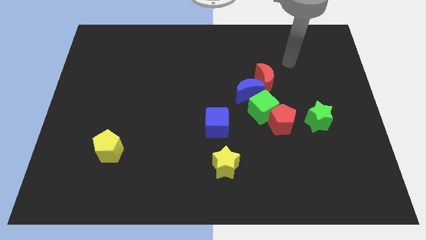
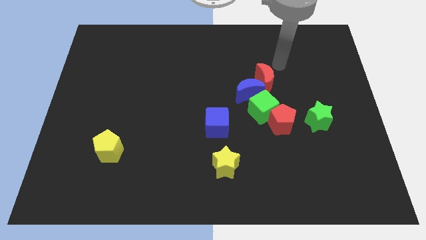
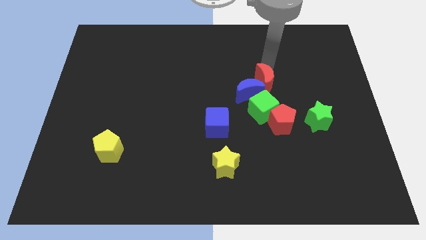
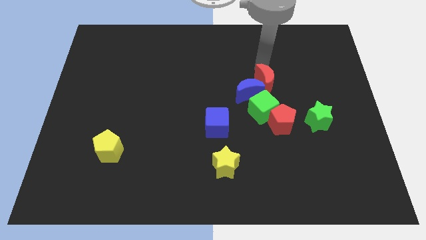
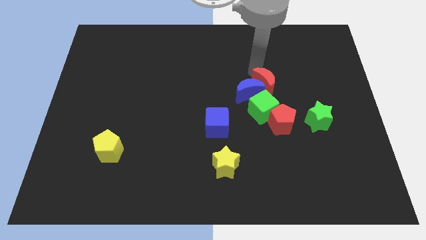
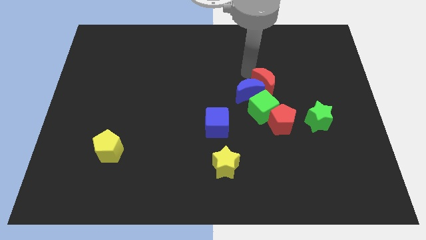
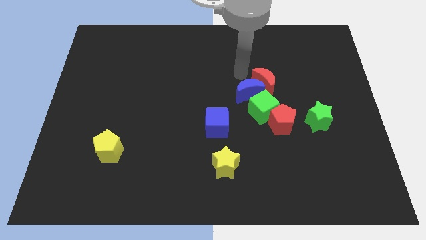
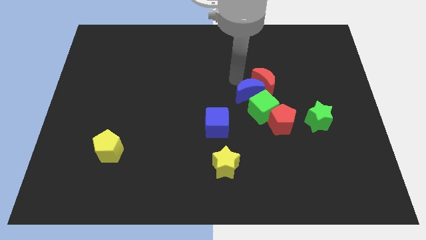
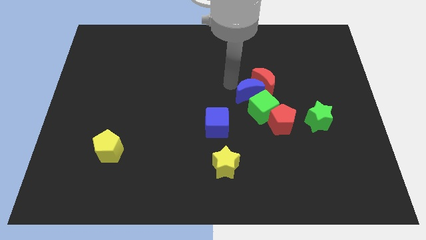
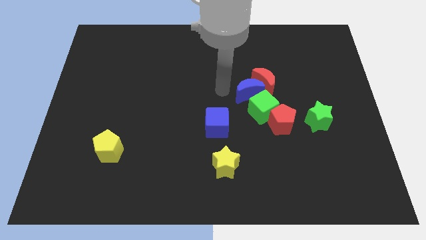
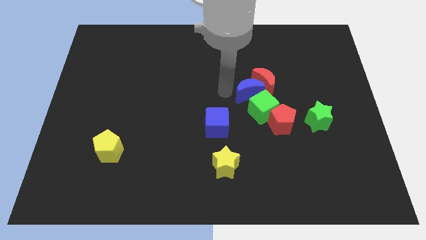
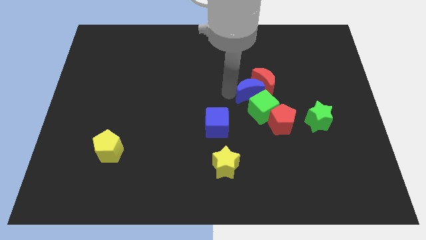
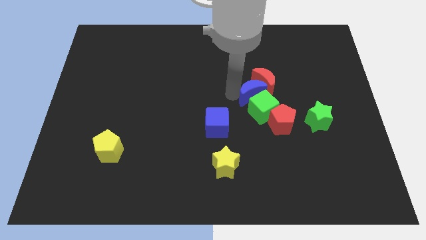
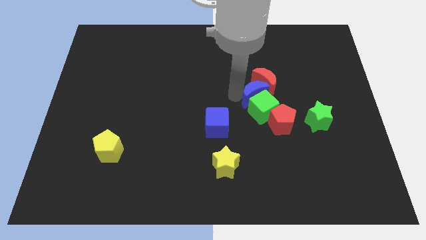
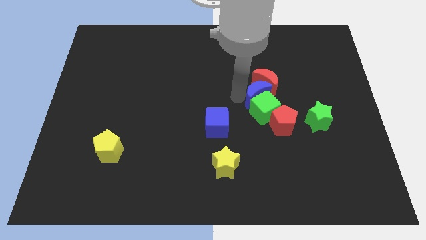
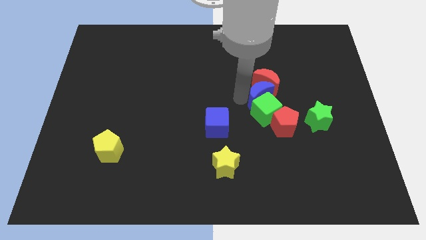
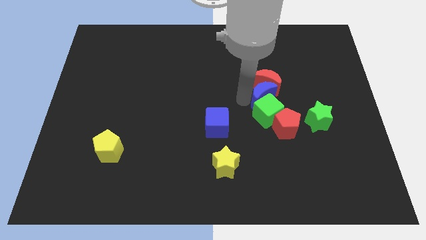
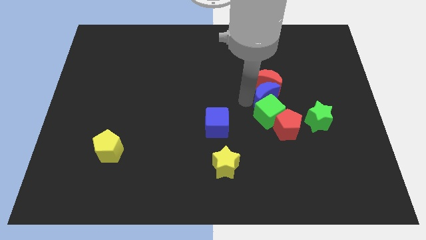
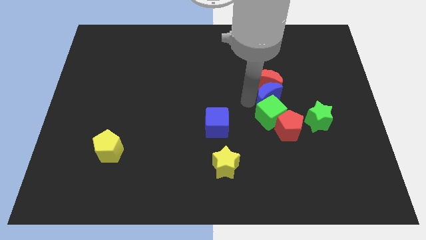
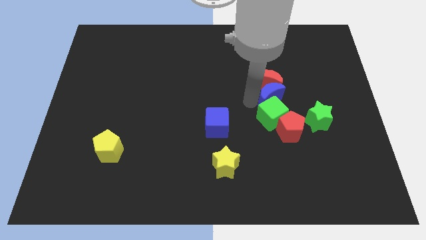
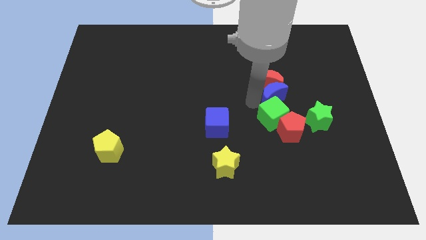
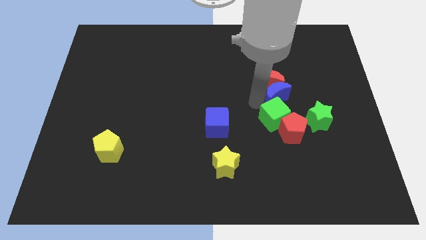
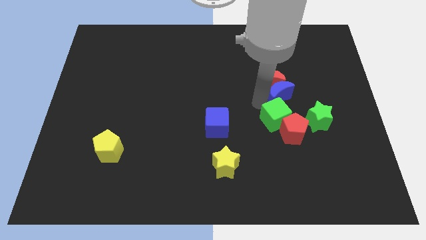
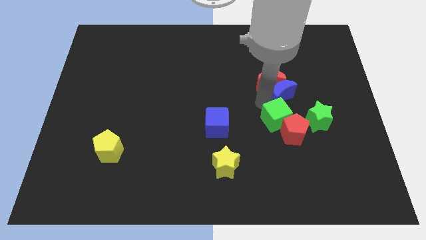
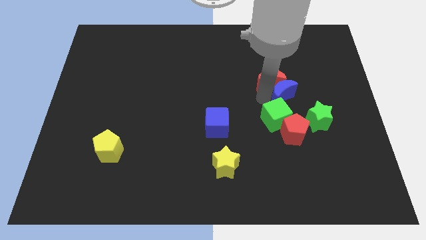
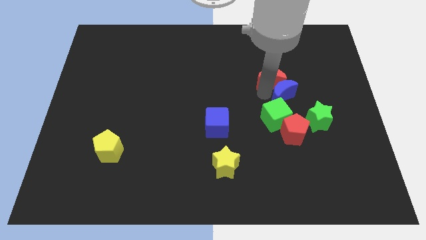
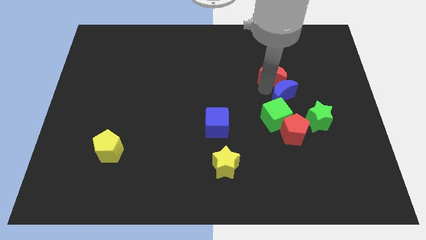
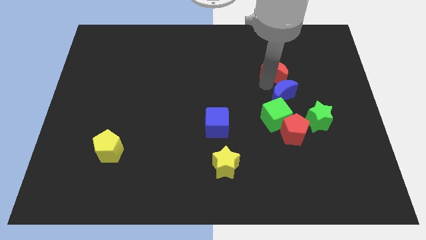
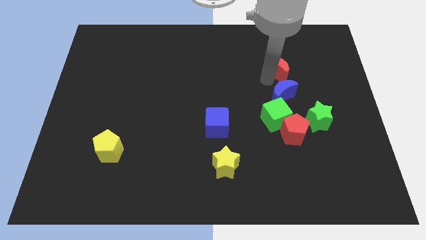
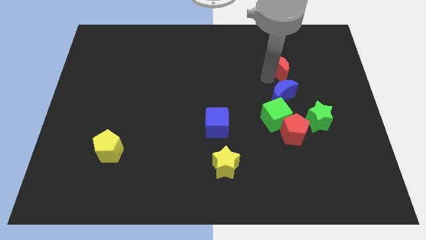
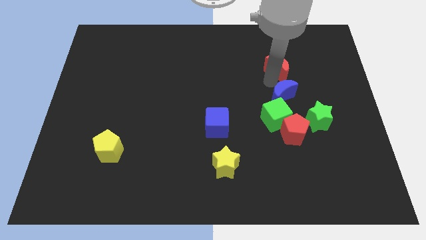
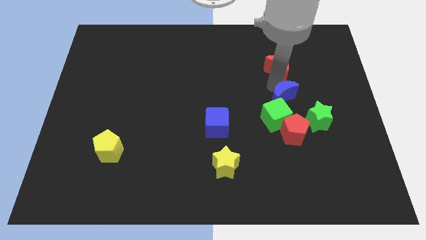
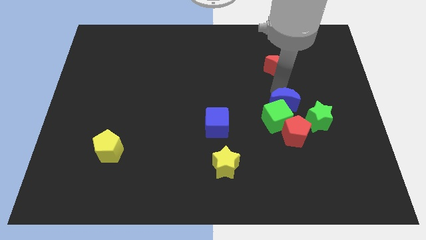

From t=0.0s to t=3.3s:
move the blue moon down and to the right somewhat

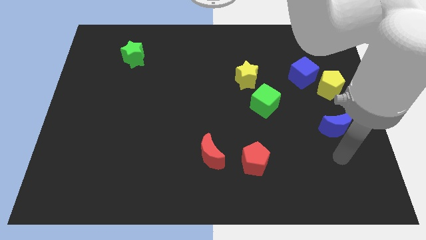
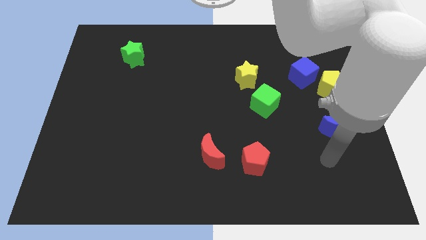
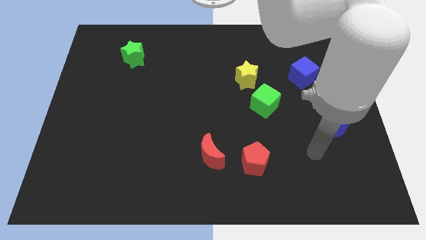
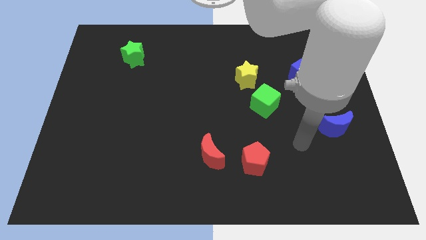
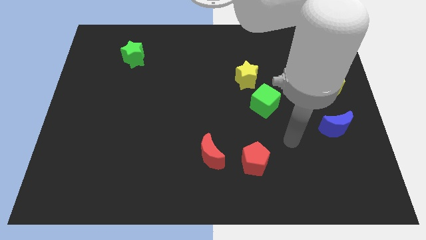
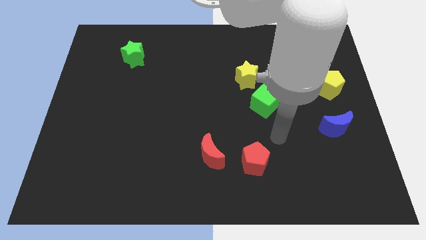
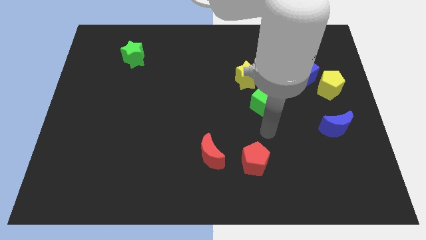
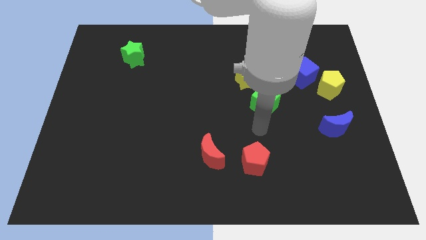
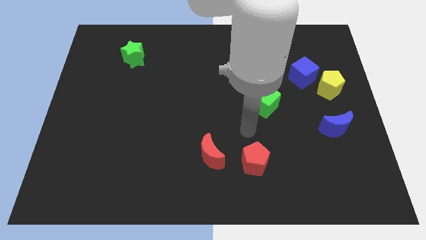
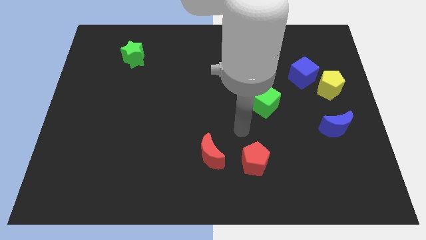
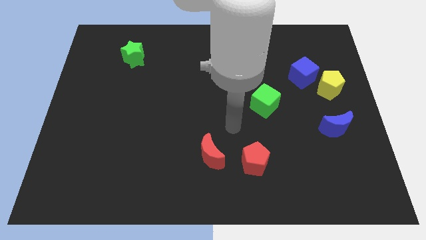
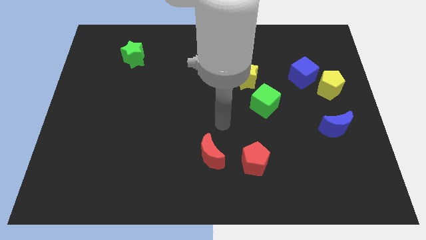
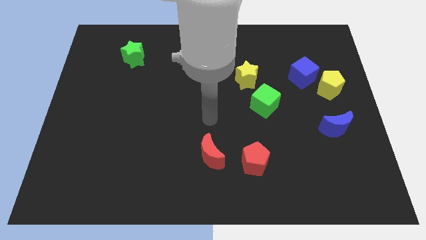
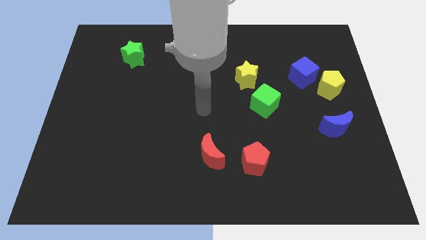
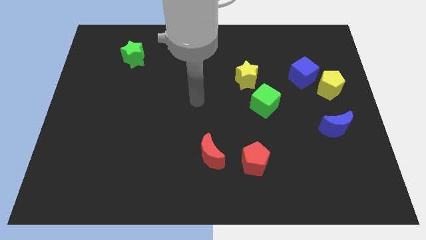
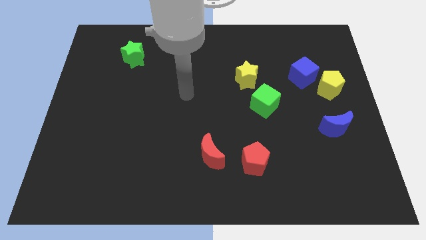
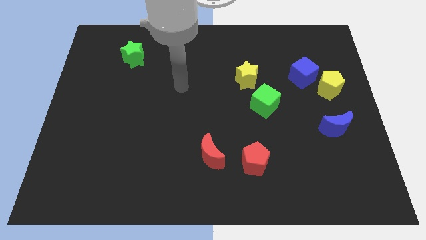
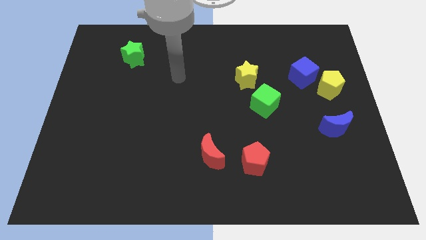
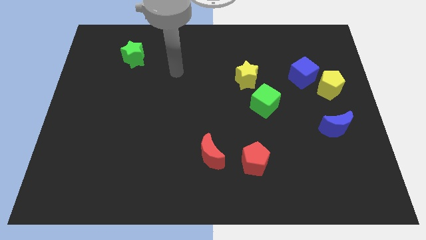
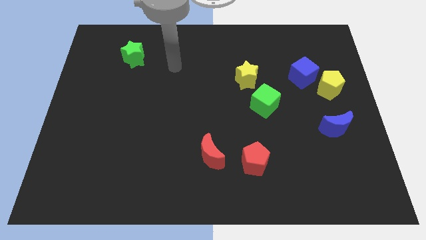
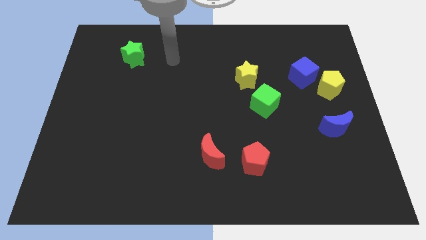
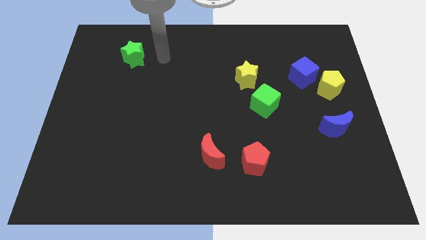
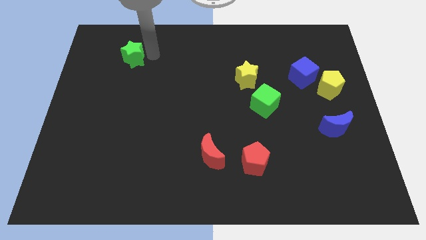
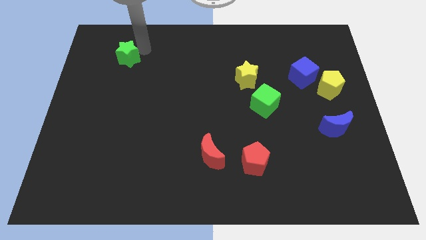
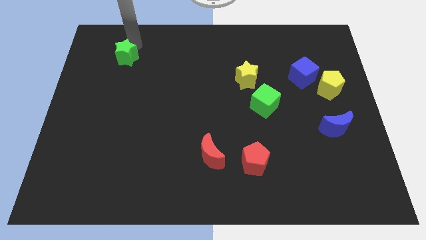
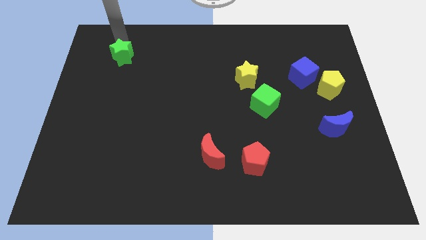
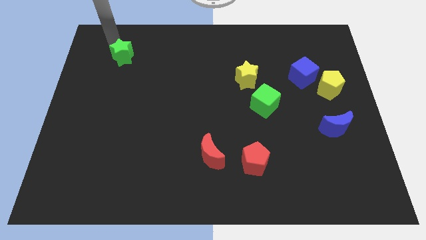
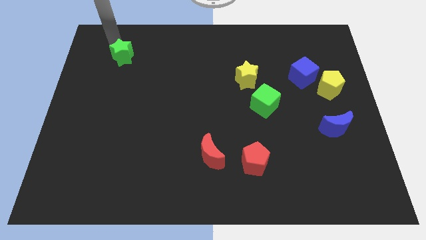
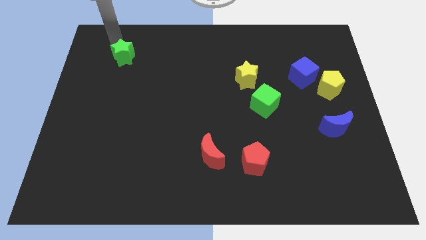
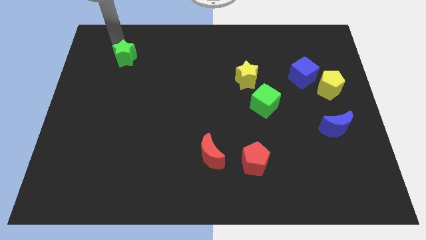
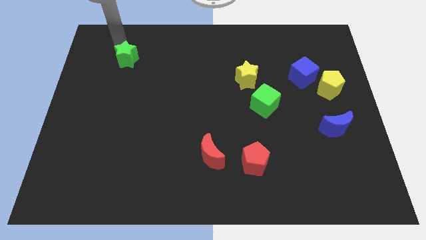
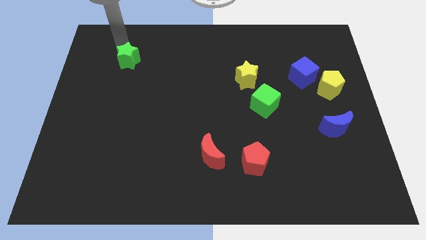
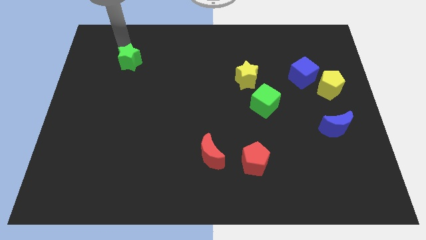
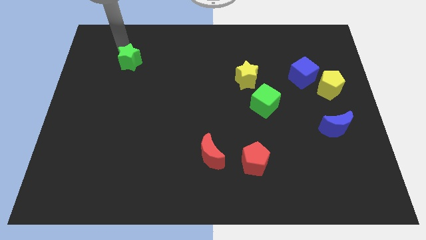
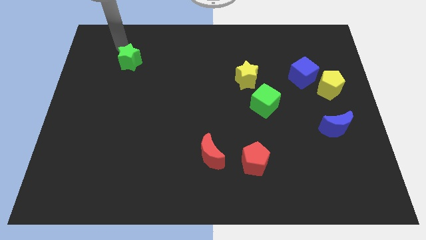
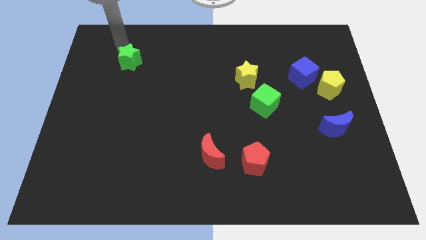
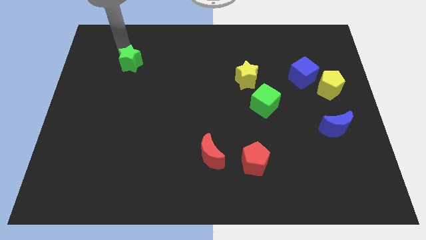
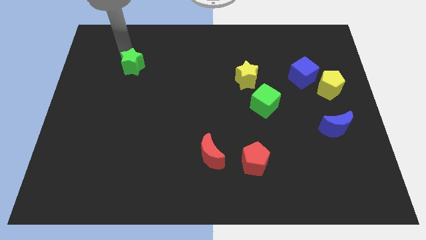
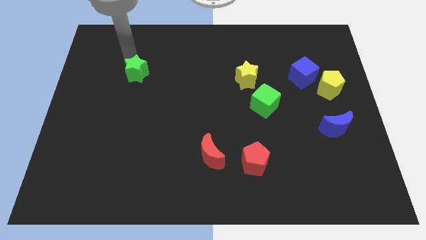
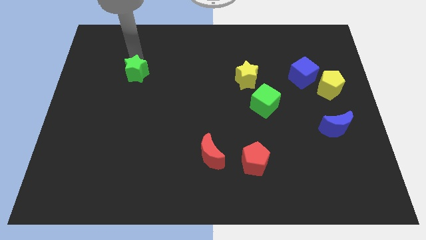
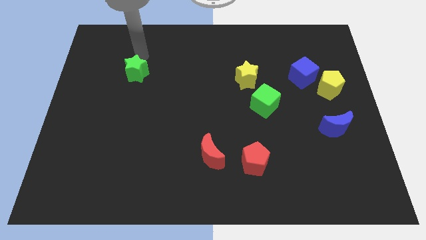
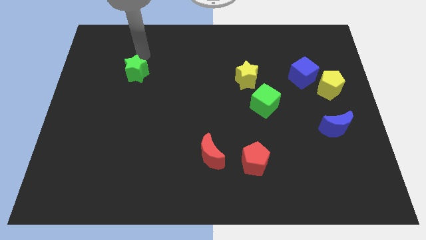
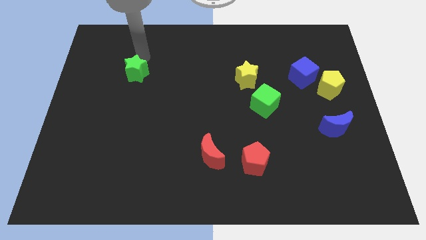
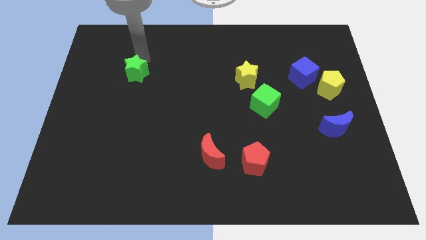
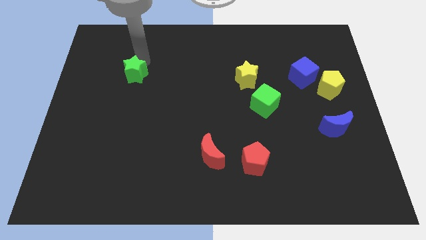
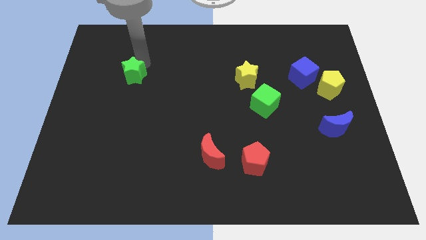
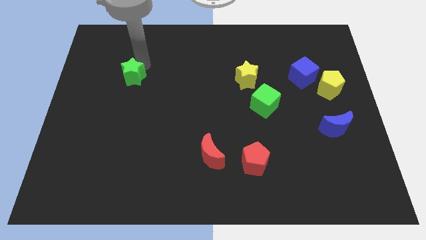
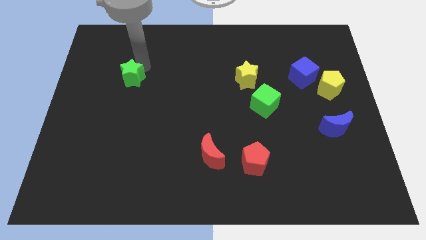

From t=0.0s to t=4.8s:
slightly push the green star down
